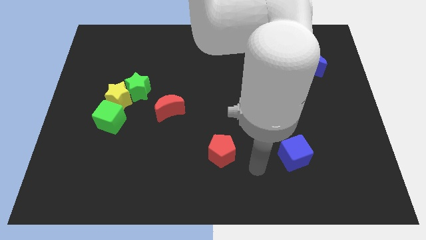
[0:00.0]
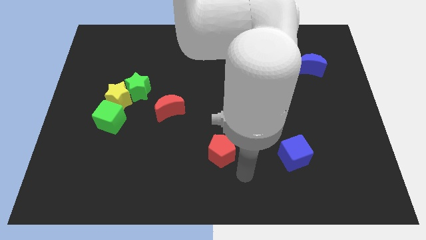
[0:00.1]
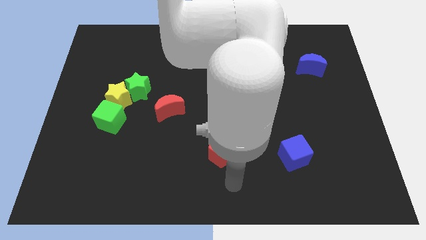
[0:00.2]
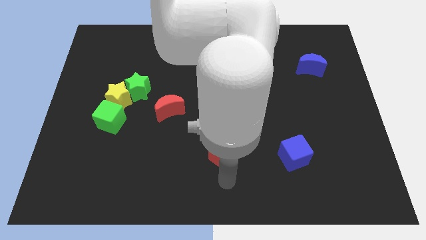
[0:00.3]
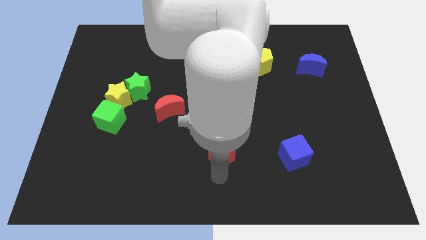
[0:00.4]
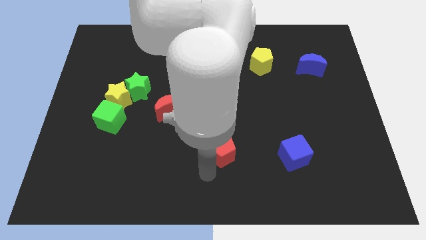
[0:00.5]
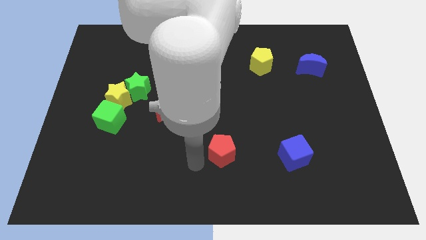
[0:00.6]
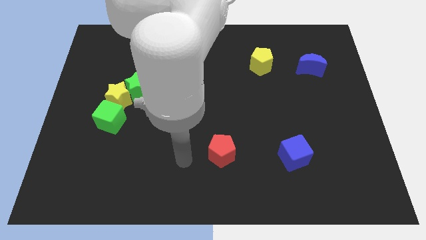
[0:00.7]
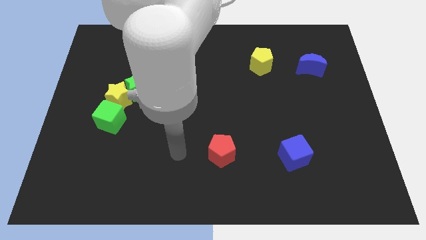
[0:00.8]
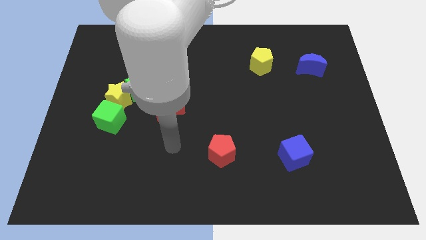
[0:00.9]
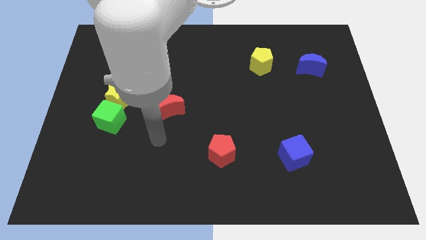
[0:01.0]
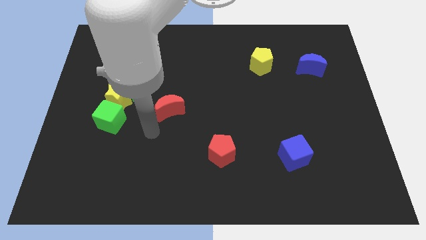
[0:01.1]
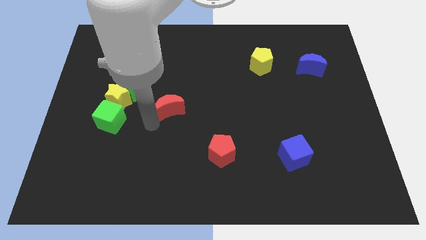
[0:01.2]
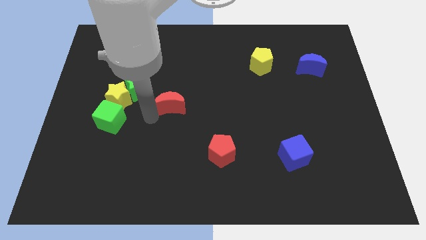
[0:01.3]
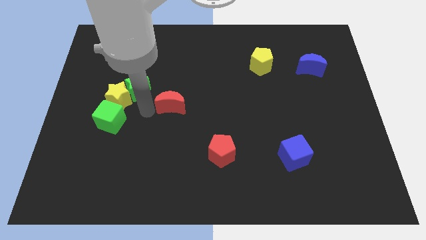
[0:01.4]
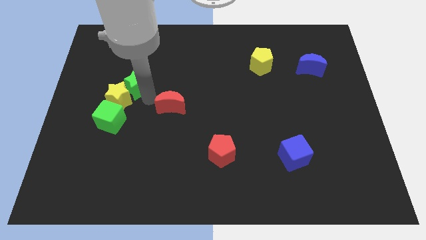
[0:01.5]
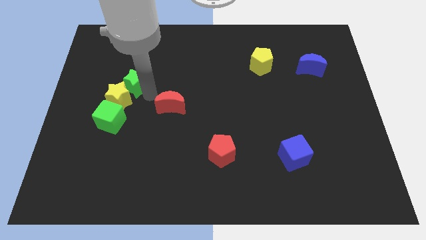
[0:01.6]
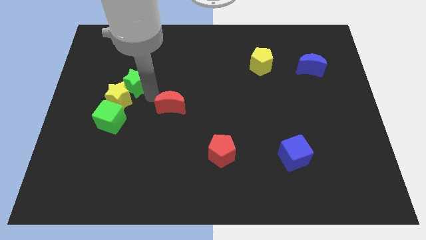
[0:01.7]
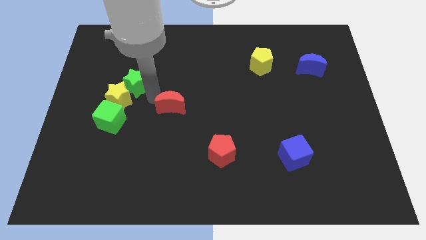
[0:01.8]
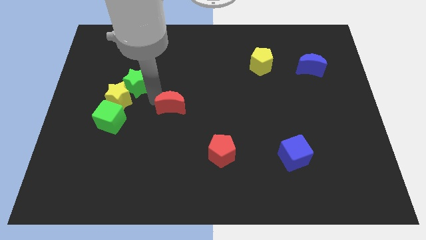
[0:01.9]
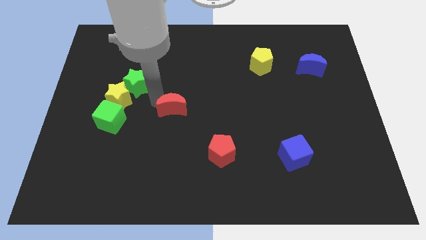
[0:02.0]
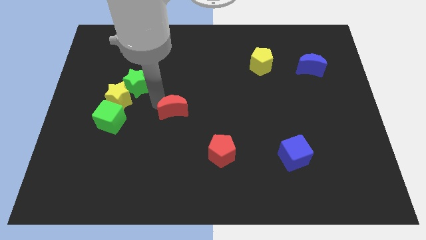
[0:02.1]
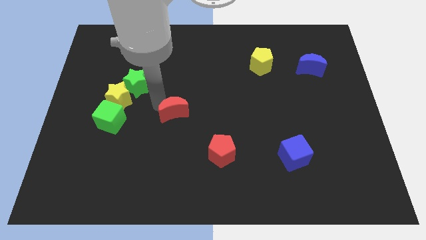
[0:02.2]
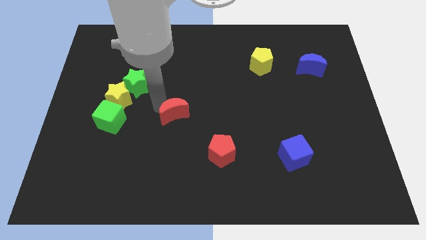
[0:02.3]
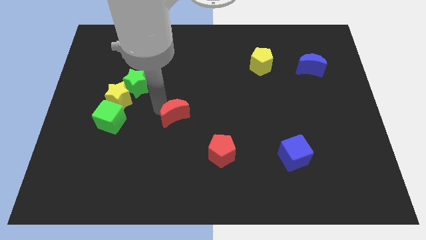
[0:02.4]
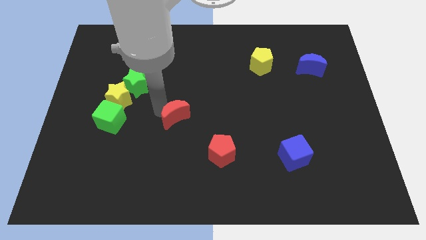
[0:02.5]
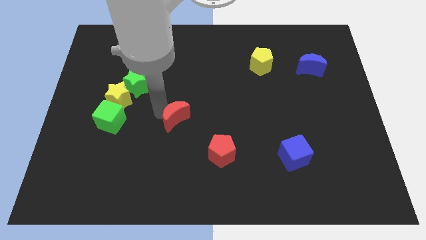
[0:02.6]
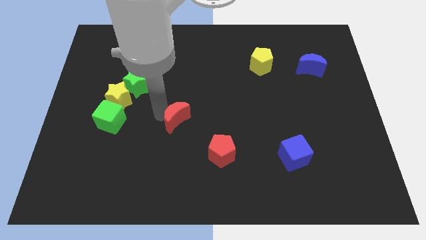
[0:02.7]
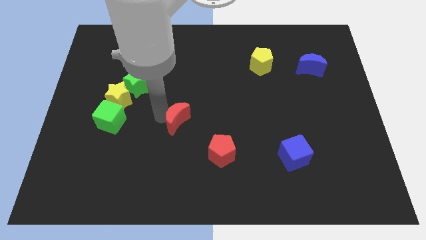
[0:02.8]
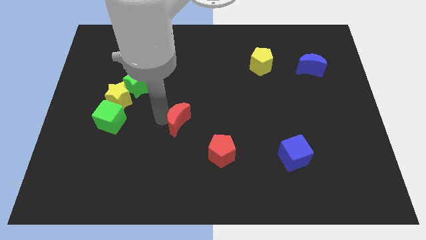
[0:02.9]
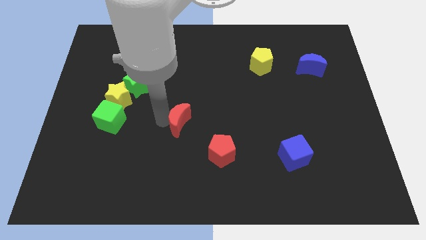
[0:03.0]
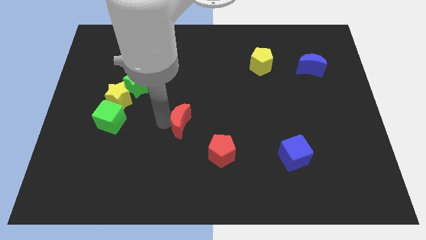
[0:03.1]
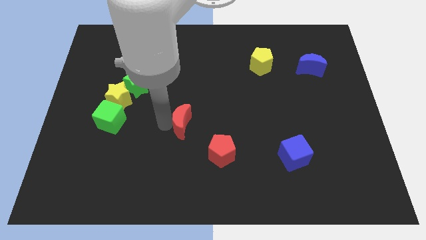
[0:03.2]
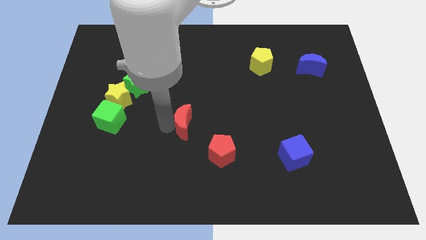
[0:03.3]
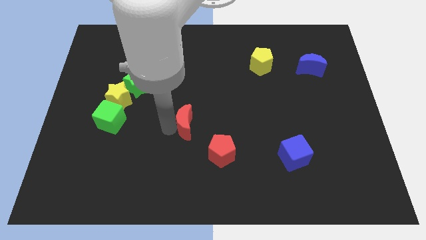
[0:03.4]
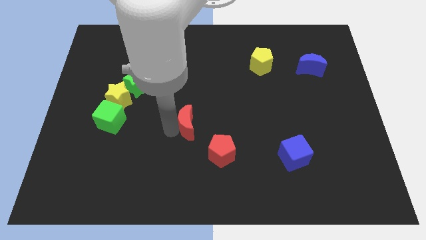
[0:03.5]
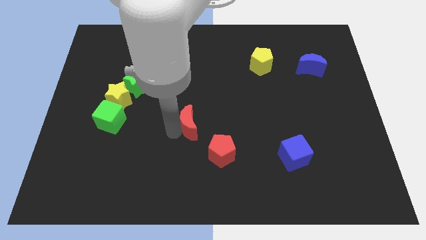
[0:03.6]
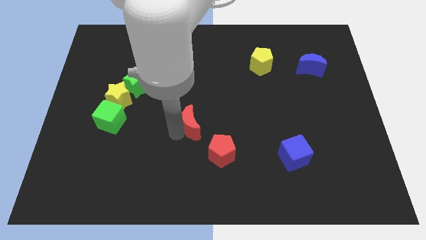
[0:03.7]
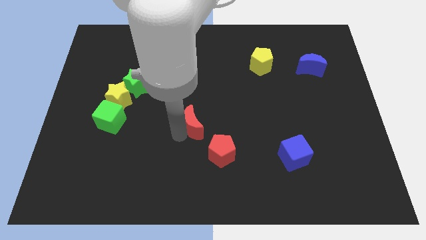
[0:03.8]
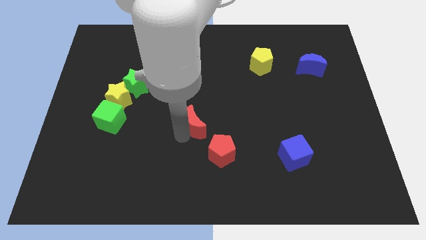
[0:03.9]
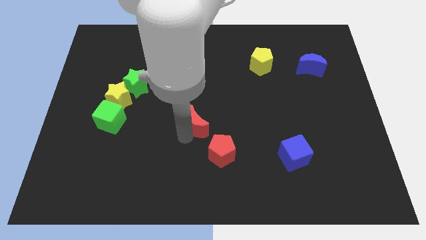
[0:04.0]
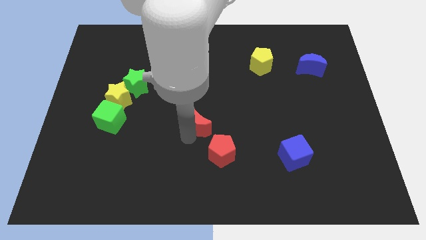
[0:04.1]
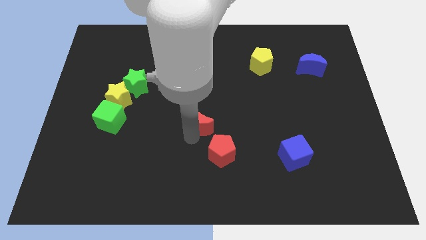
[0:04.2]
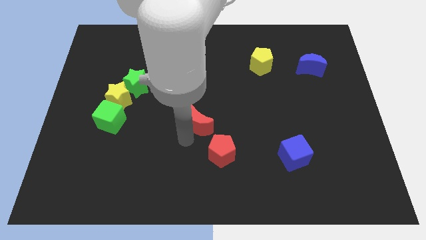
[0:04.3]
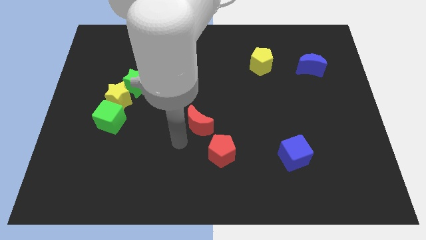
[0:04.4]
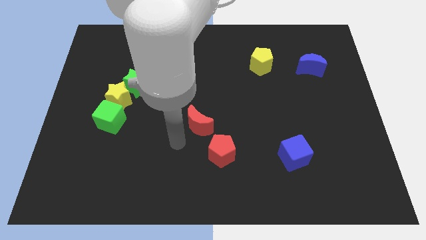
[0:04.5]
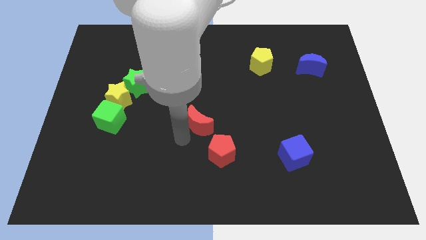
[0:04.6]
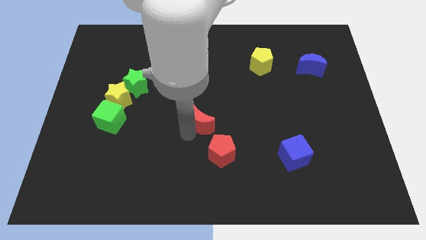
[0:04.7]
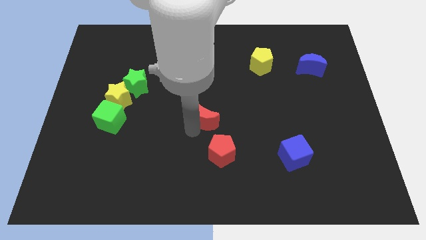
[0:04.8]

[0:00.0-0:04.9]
push the red moon right a little bit

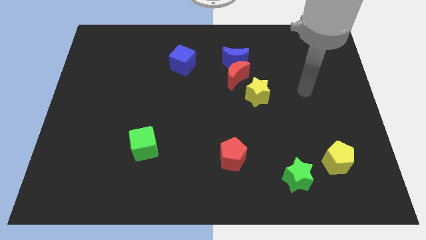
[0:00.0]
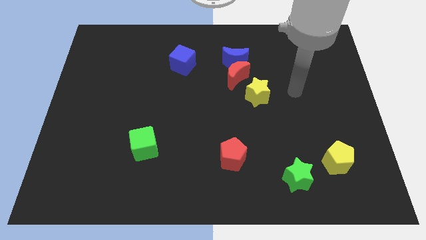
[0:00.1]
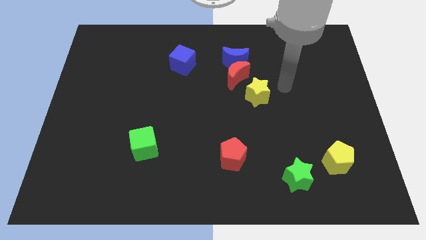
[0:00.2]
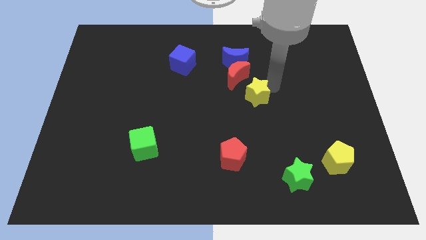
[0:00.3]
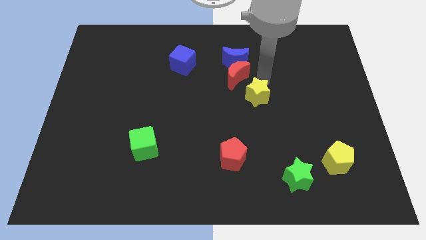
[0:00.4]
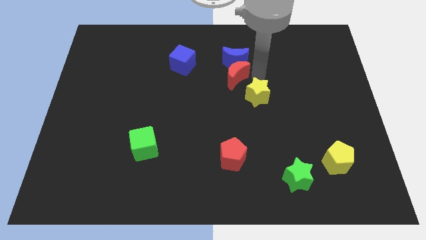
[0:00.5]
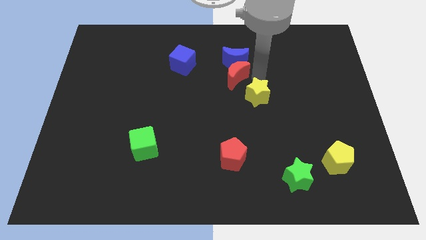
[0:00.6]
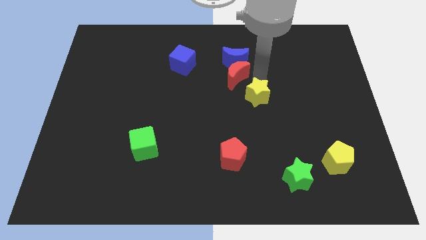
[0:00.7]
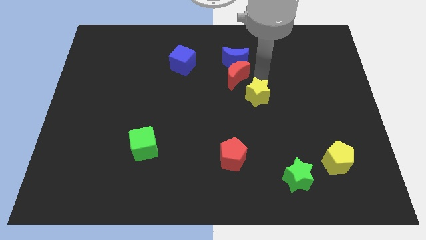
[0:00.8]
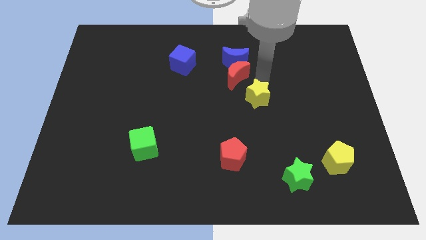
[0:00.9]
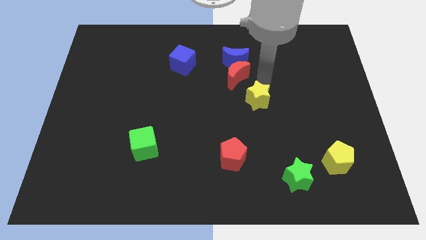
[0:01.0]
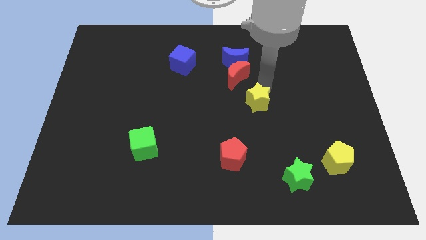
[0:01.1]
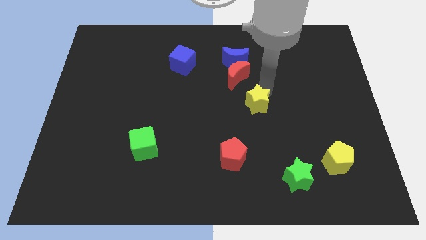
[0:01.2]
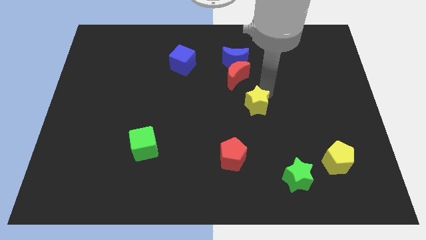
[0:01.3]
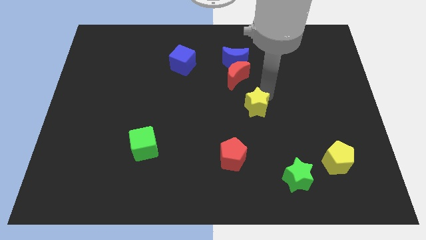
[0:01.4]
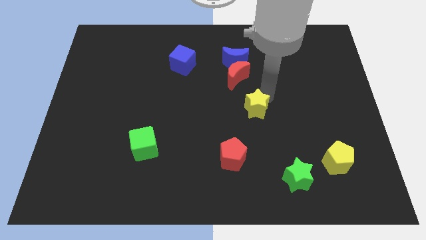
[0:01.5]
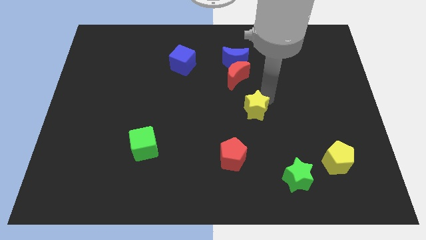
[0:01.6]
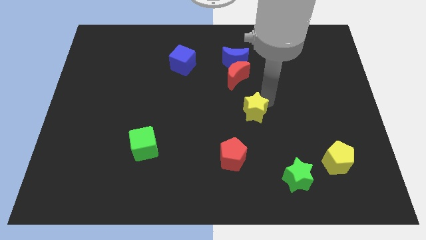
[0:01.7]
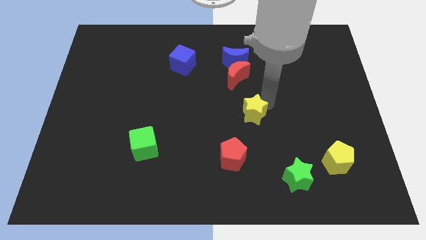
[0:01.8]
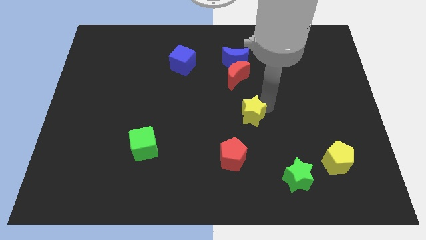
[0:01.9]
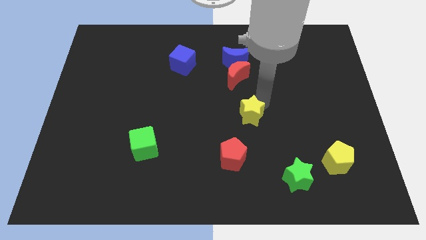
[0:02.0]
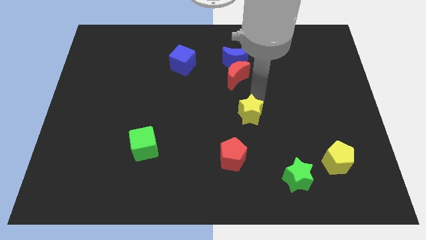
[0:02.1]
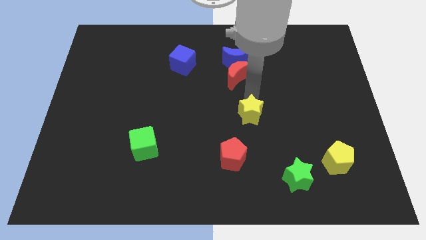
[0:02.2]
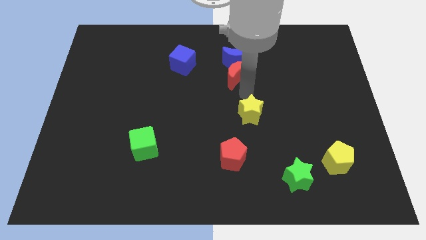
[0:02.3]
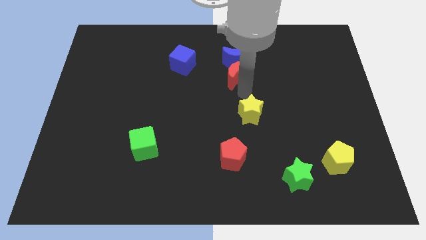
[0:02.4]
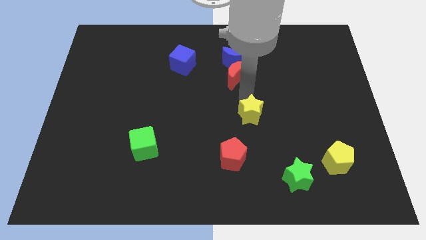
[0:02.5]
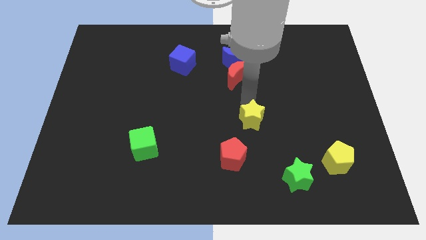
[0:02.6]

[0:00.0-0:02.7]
slightly move the yellow star down

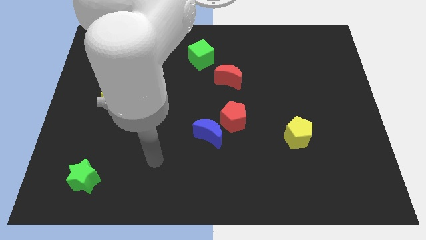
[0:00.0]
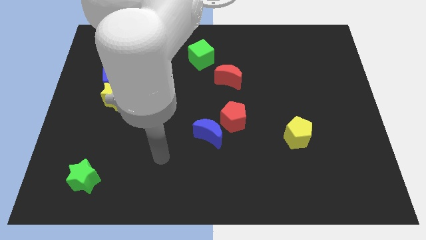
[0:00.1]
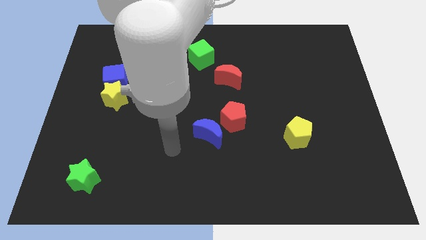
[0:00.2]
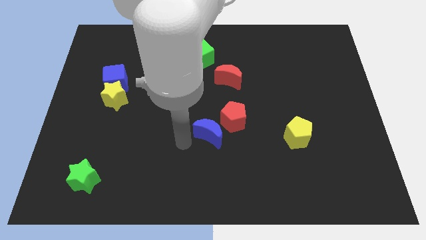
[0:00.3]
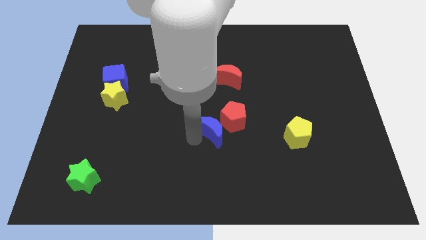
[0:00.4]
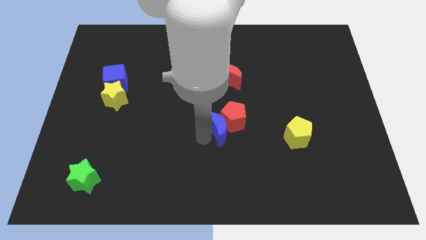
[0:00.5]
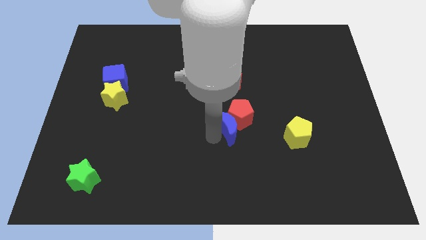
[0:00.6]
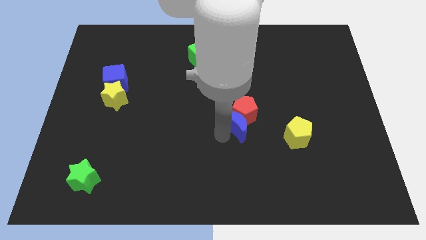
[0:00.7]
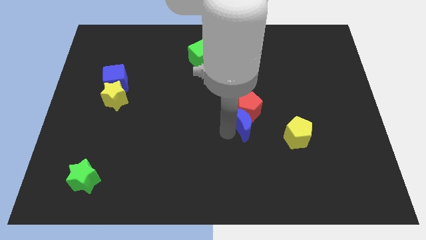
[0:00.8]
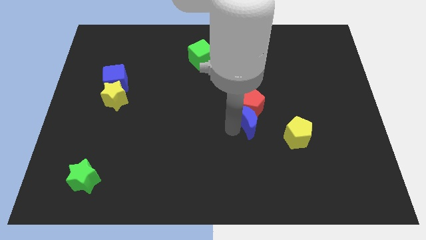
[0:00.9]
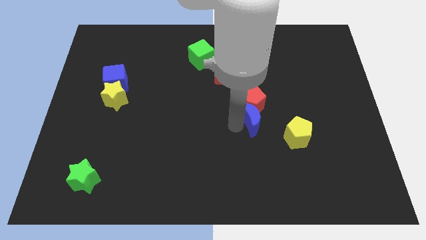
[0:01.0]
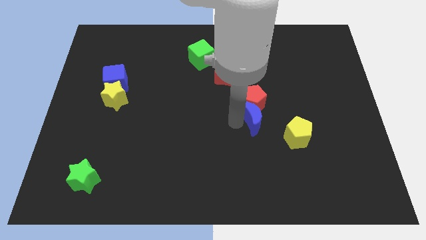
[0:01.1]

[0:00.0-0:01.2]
move the red pentagon somewhat up and right diagonally
